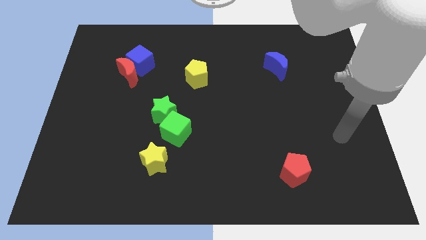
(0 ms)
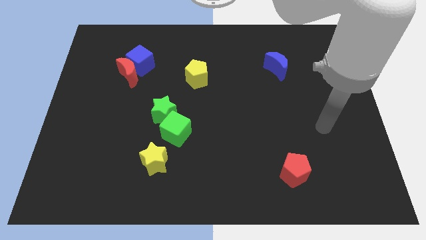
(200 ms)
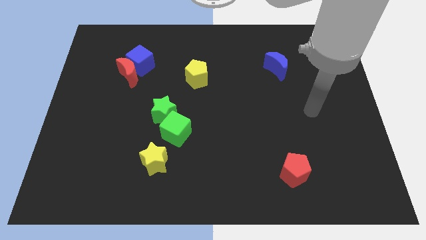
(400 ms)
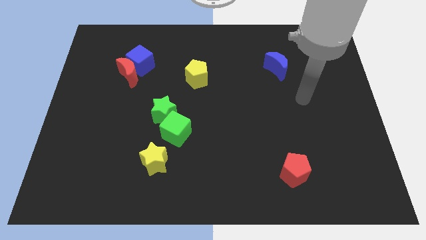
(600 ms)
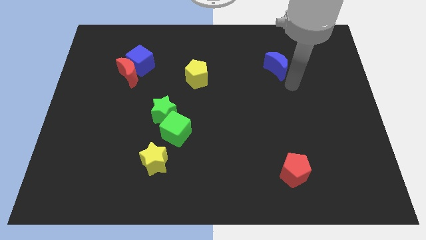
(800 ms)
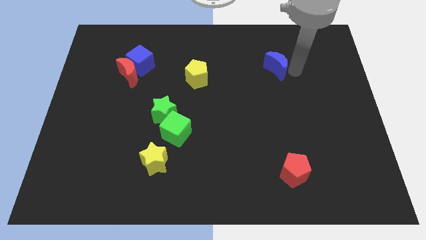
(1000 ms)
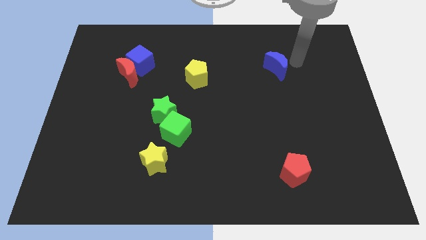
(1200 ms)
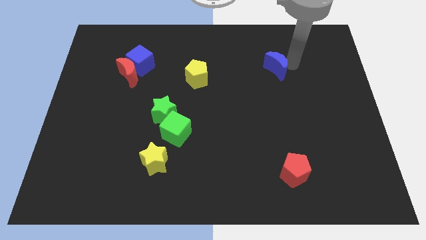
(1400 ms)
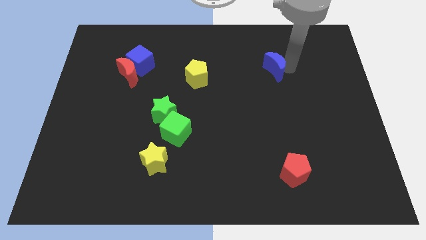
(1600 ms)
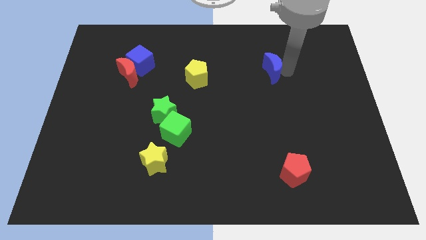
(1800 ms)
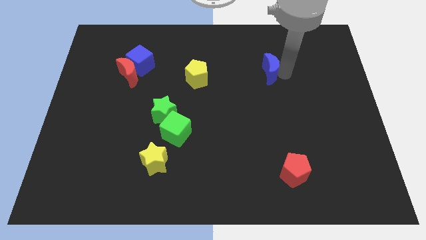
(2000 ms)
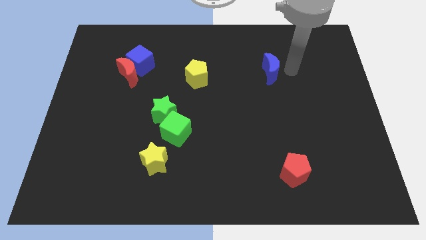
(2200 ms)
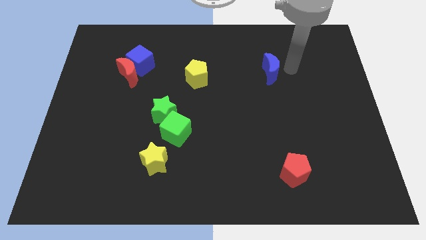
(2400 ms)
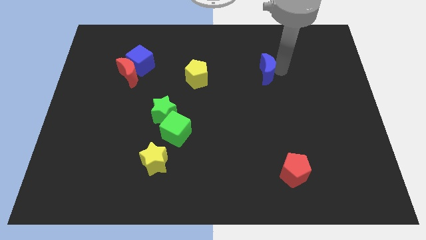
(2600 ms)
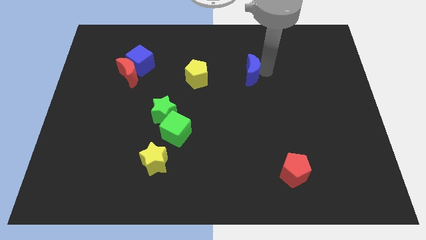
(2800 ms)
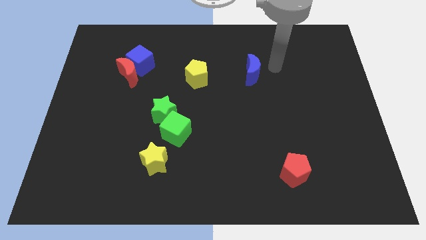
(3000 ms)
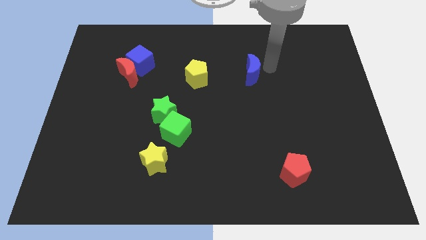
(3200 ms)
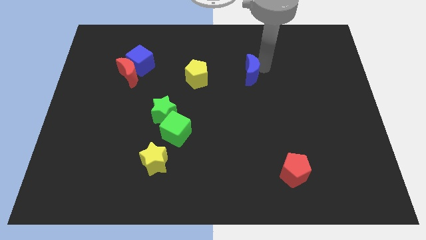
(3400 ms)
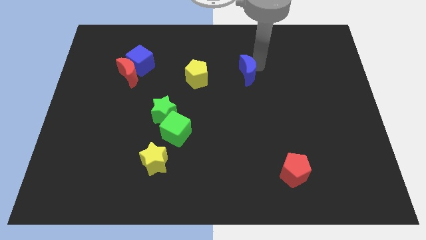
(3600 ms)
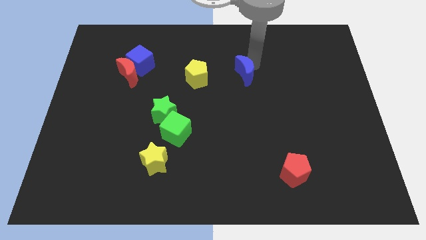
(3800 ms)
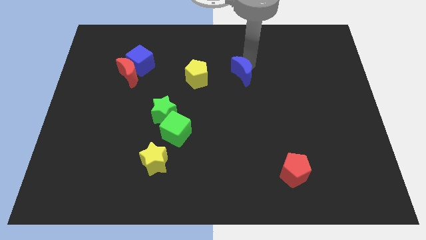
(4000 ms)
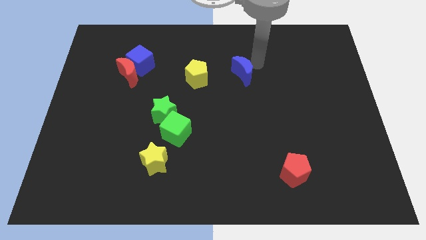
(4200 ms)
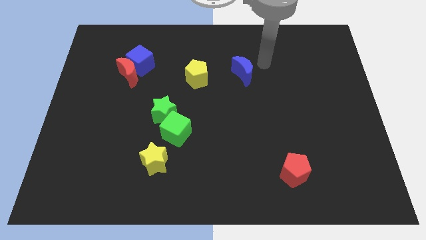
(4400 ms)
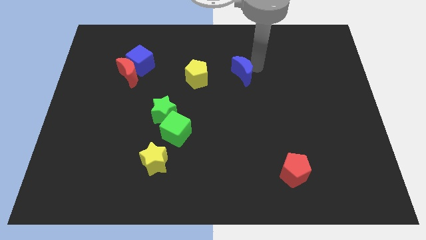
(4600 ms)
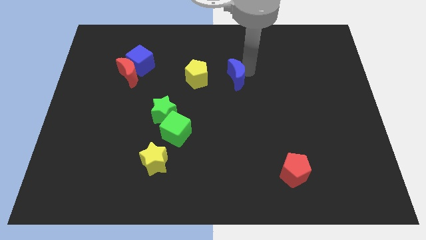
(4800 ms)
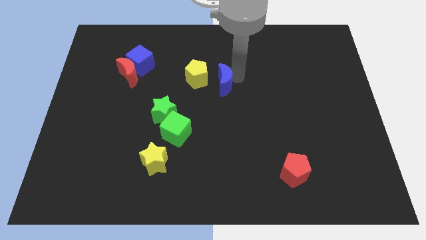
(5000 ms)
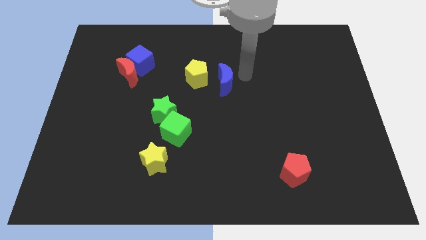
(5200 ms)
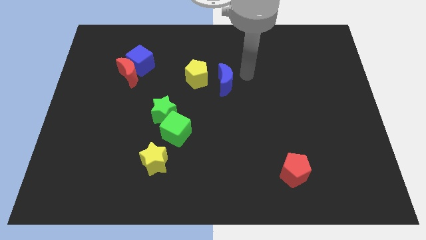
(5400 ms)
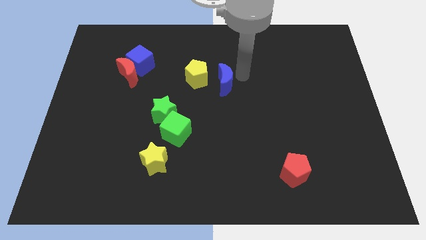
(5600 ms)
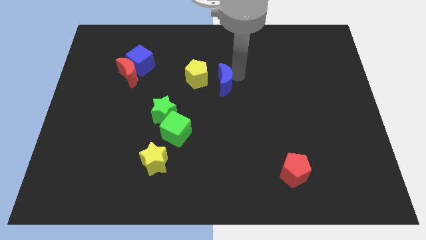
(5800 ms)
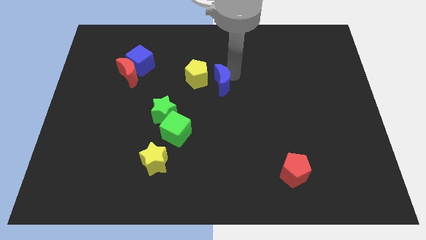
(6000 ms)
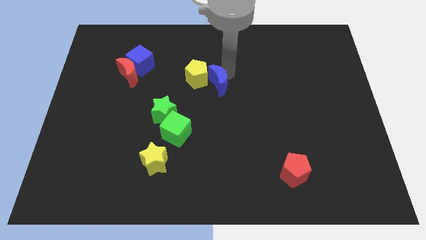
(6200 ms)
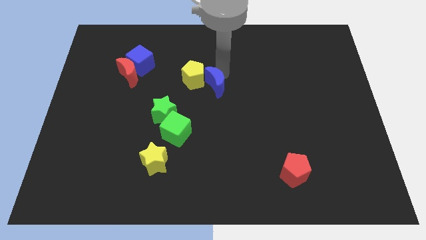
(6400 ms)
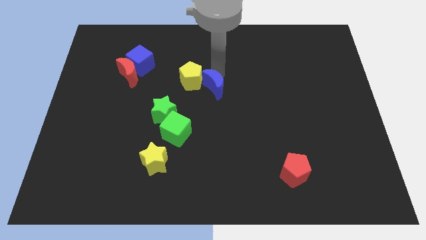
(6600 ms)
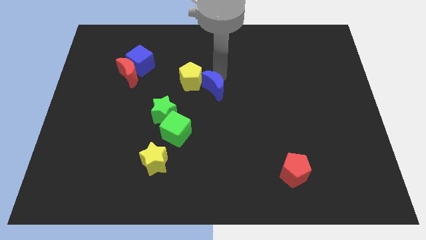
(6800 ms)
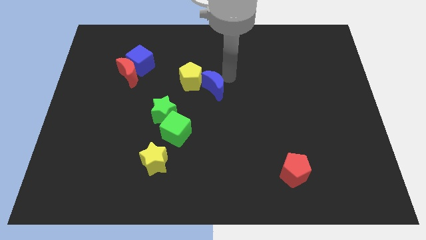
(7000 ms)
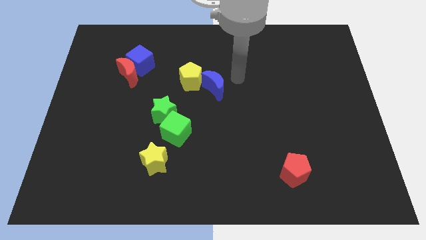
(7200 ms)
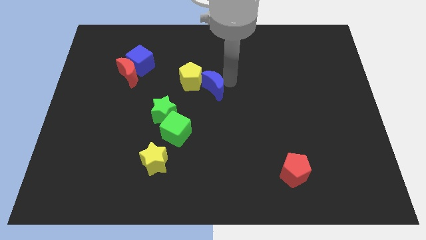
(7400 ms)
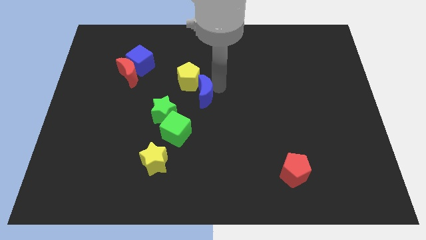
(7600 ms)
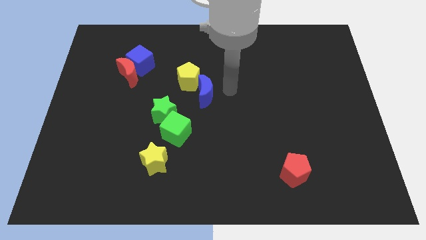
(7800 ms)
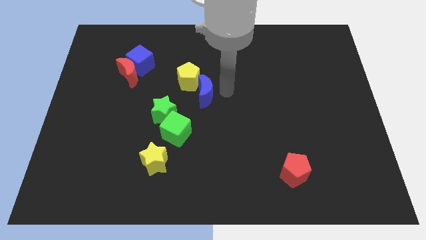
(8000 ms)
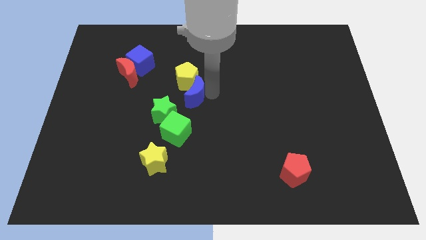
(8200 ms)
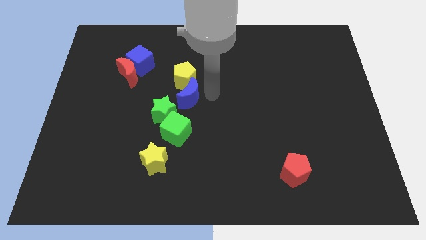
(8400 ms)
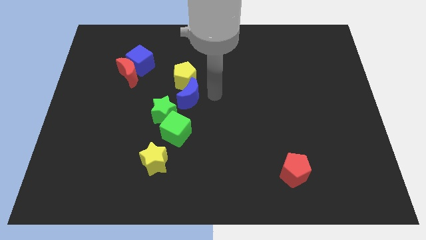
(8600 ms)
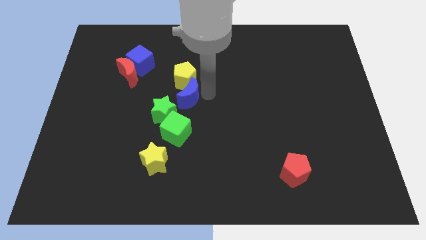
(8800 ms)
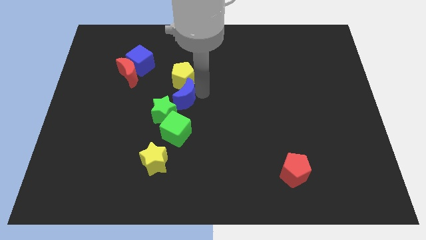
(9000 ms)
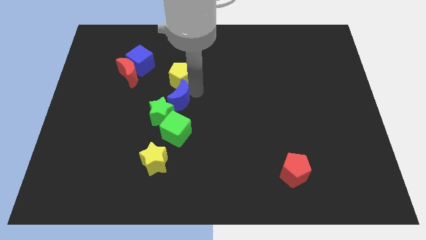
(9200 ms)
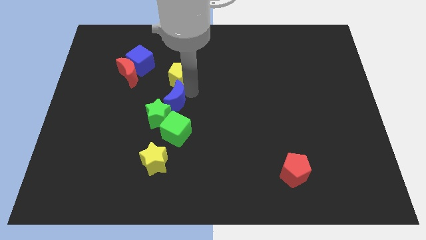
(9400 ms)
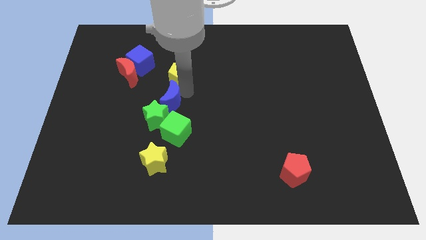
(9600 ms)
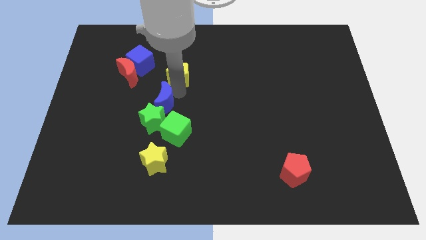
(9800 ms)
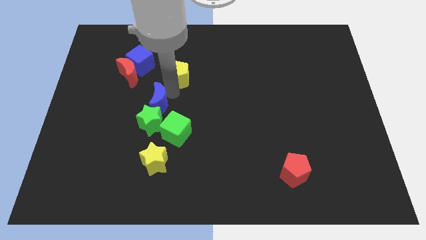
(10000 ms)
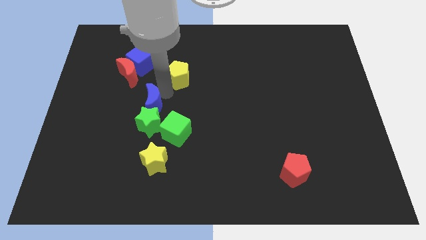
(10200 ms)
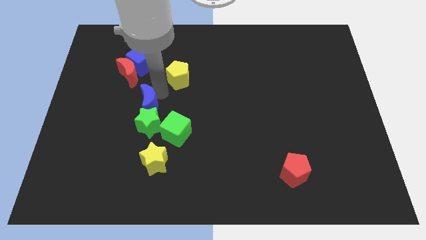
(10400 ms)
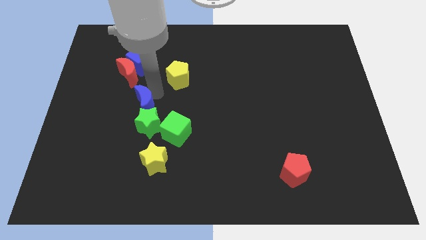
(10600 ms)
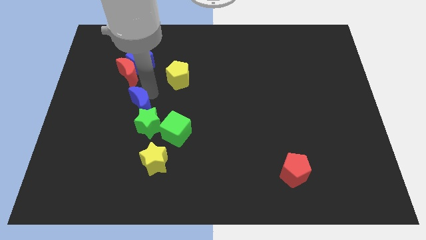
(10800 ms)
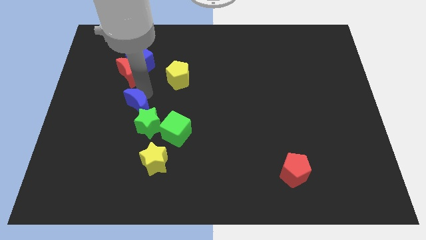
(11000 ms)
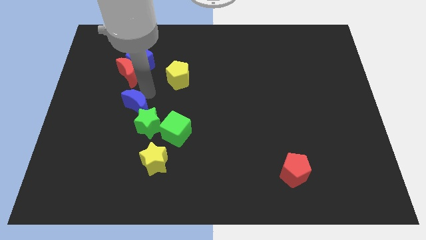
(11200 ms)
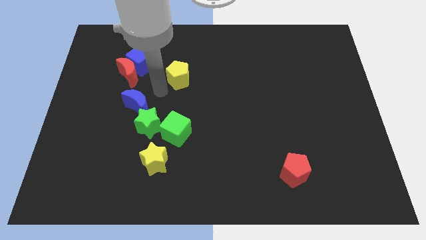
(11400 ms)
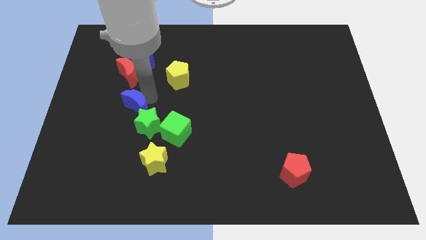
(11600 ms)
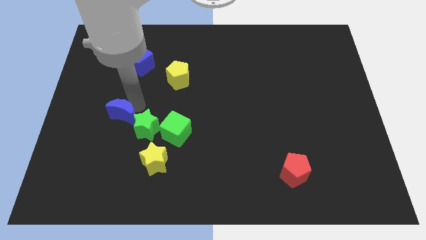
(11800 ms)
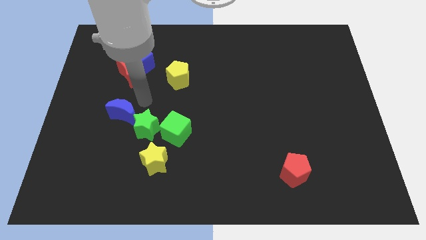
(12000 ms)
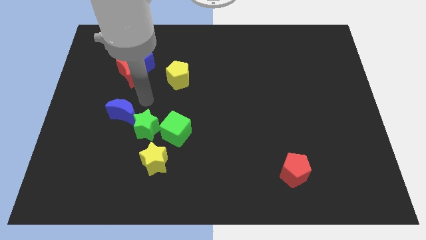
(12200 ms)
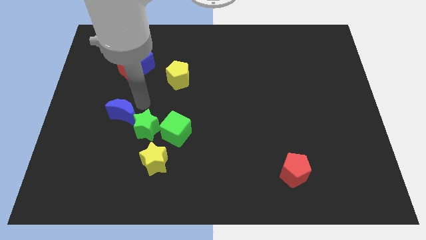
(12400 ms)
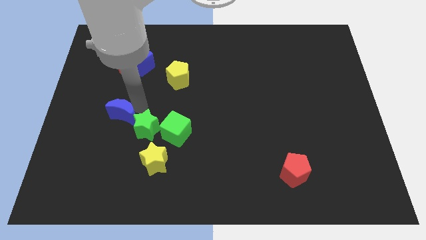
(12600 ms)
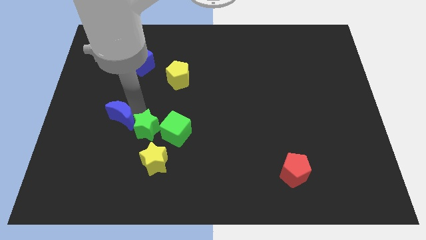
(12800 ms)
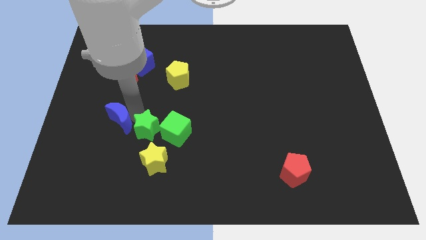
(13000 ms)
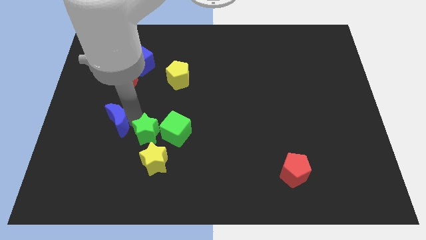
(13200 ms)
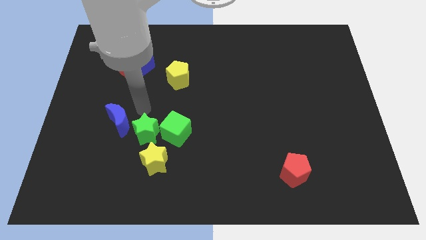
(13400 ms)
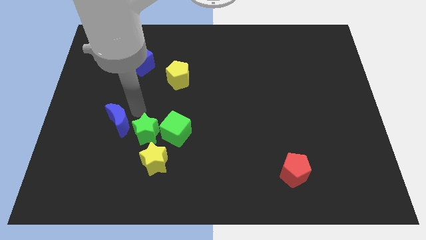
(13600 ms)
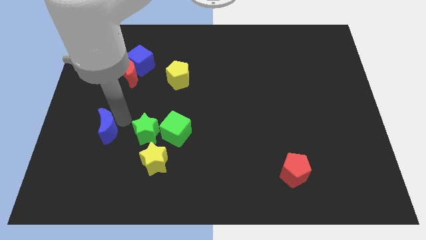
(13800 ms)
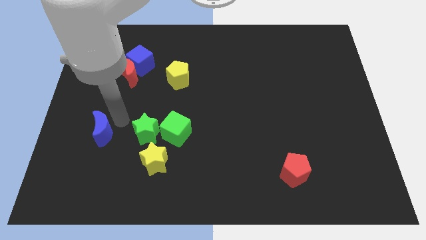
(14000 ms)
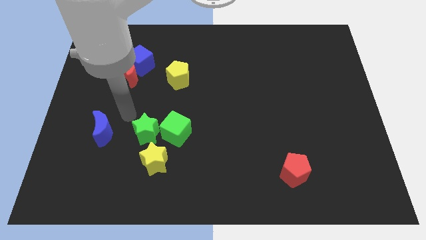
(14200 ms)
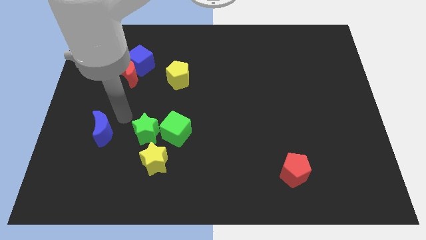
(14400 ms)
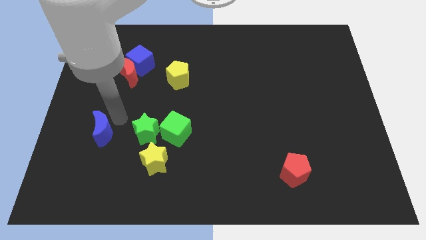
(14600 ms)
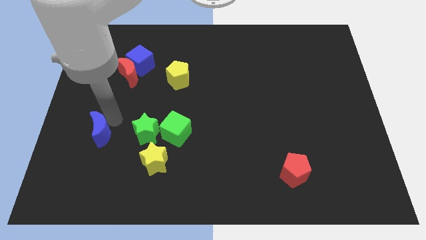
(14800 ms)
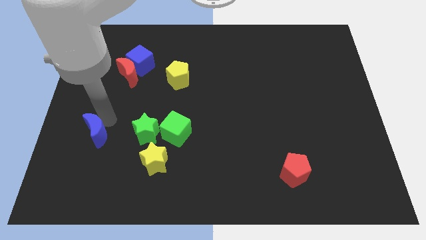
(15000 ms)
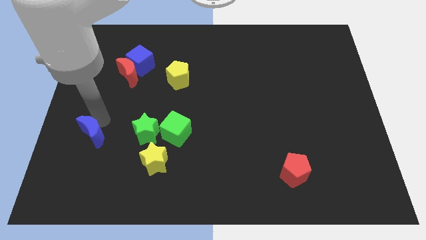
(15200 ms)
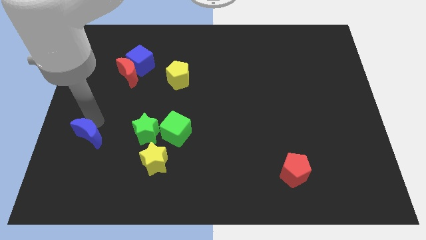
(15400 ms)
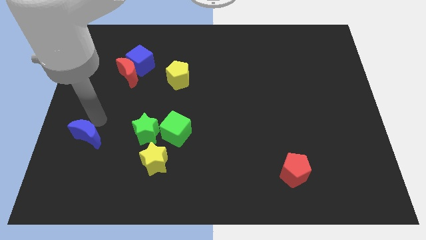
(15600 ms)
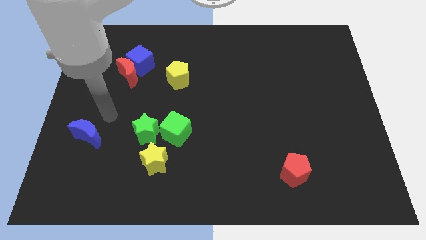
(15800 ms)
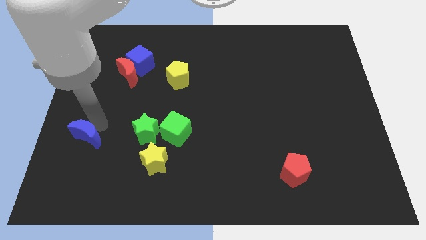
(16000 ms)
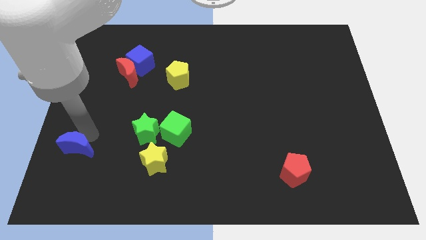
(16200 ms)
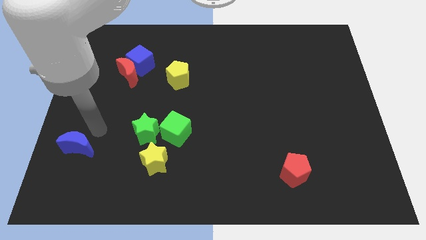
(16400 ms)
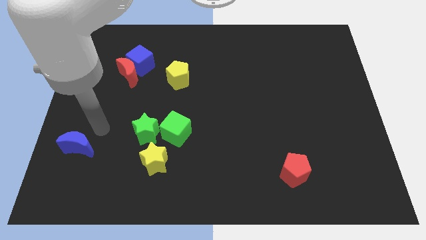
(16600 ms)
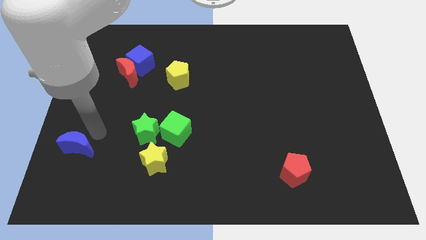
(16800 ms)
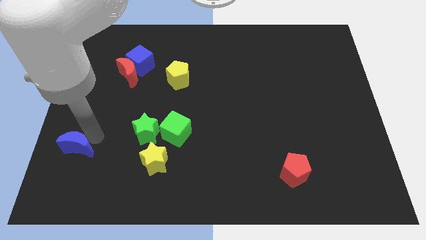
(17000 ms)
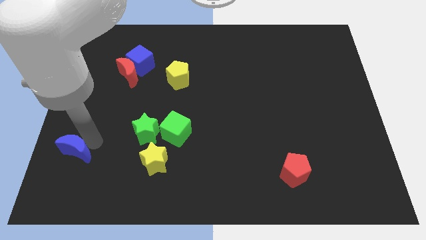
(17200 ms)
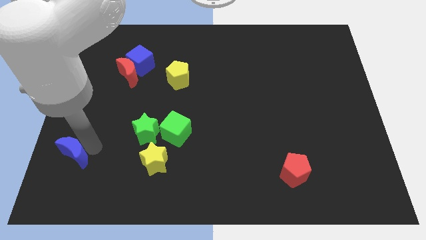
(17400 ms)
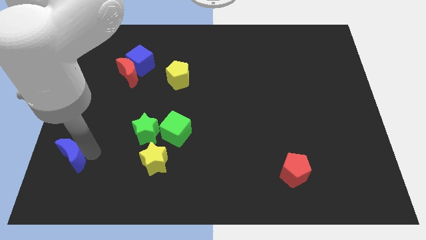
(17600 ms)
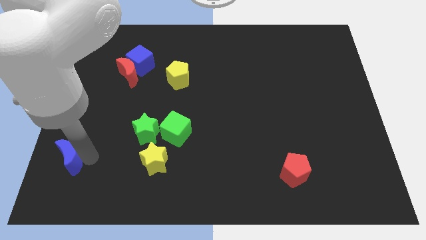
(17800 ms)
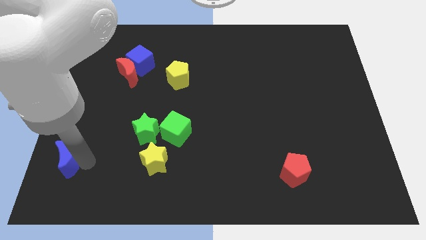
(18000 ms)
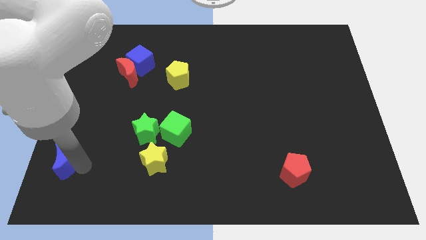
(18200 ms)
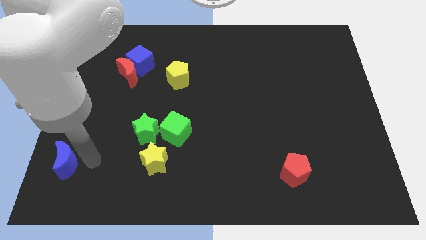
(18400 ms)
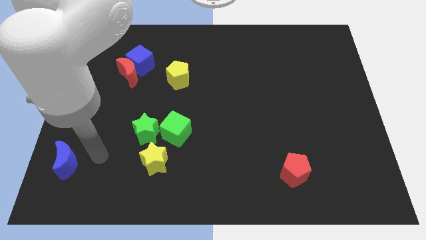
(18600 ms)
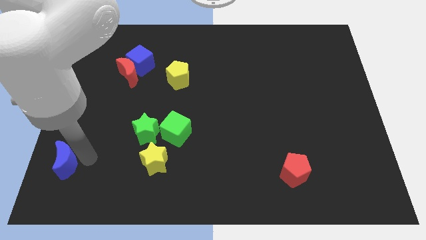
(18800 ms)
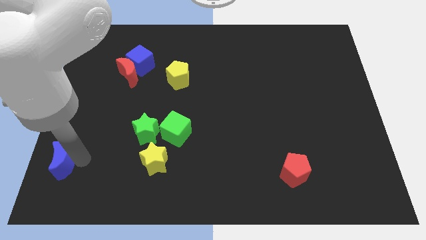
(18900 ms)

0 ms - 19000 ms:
push the blue moon to the bottom left of the board
